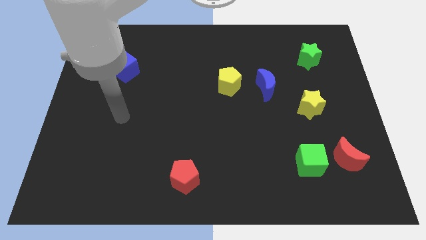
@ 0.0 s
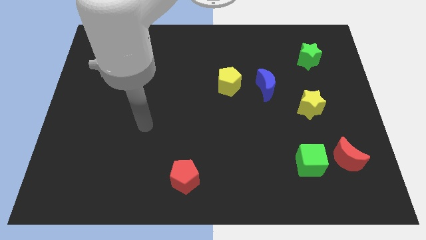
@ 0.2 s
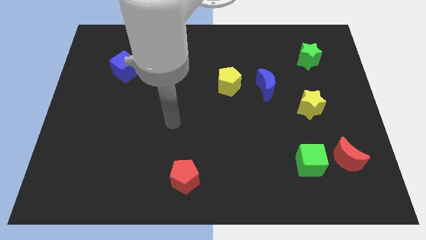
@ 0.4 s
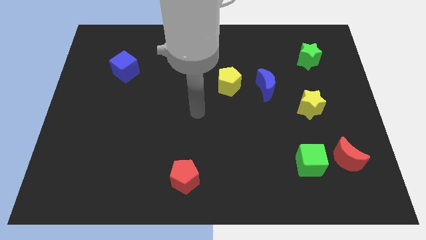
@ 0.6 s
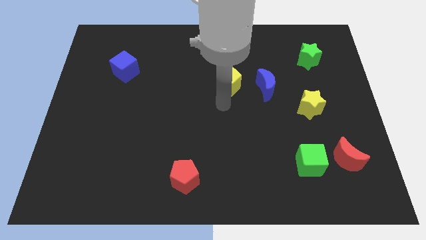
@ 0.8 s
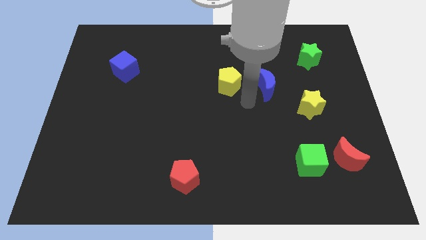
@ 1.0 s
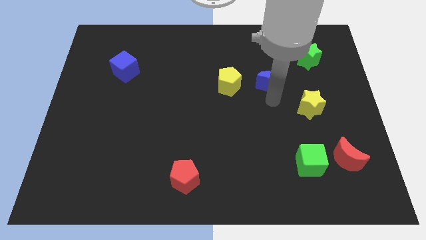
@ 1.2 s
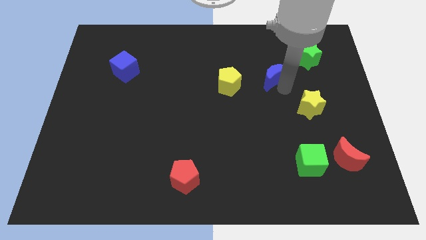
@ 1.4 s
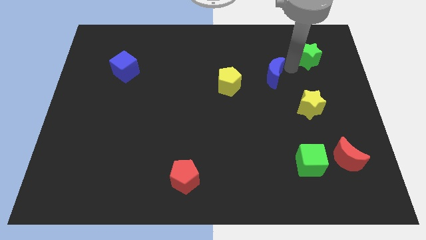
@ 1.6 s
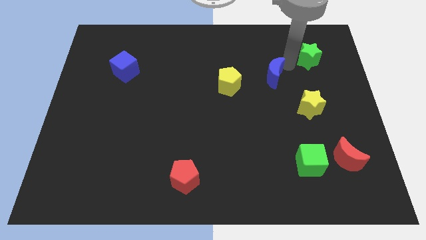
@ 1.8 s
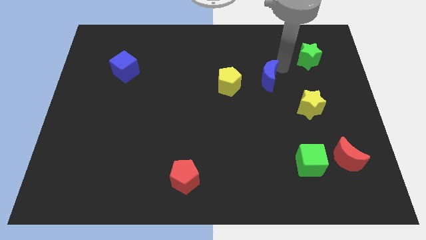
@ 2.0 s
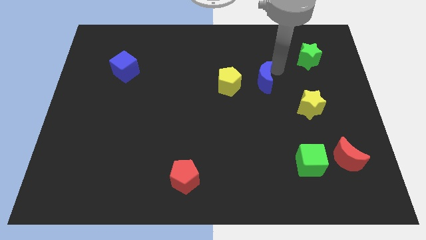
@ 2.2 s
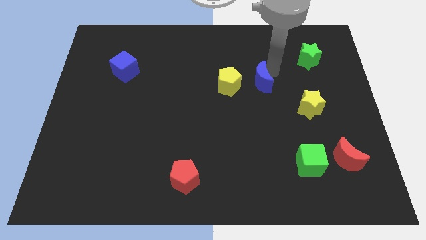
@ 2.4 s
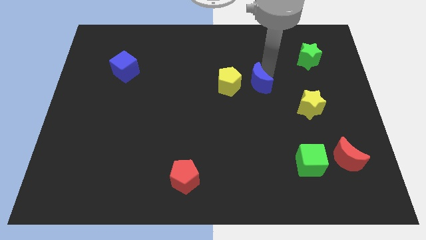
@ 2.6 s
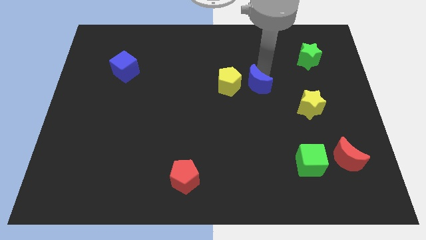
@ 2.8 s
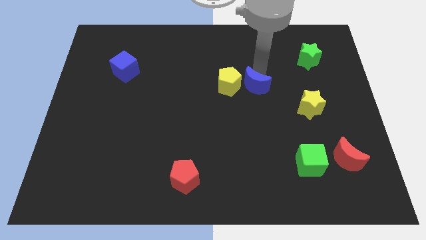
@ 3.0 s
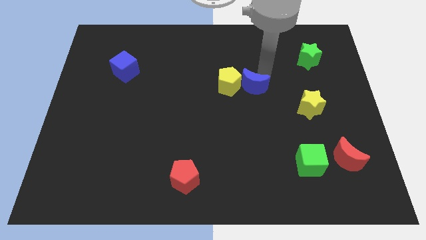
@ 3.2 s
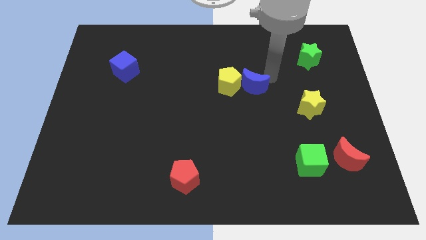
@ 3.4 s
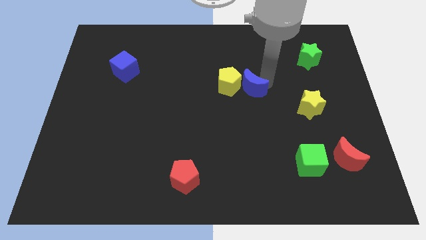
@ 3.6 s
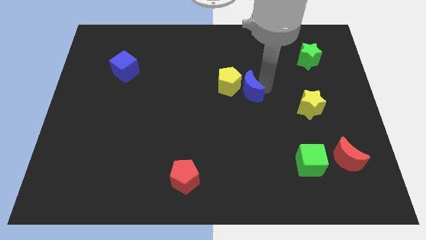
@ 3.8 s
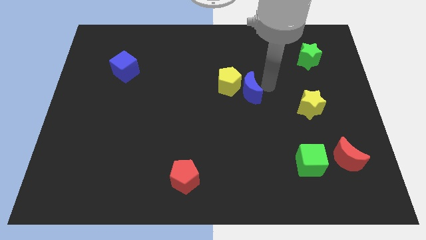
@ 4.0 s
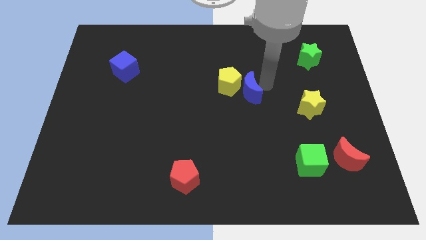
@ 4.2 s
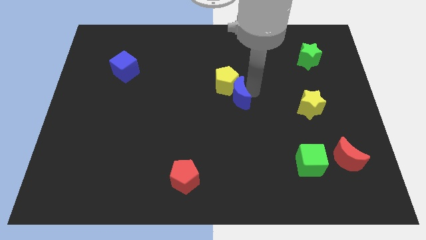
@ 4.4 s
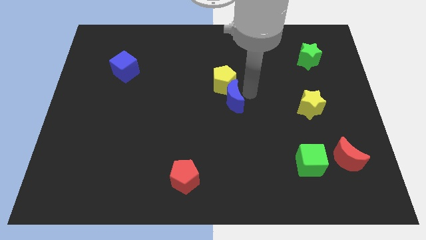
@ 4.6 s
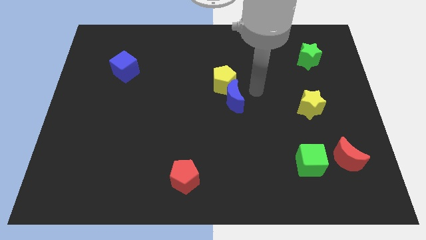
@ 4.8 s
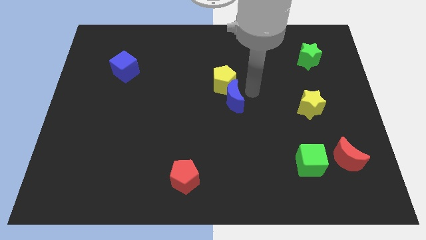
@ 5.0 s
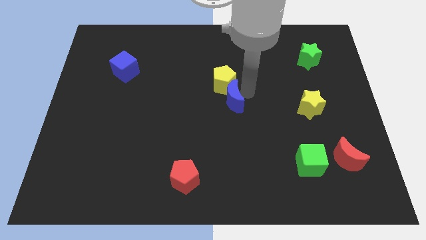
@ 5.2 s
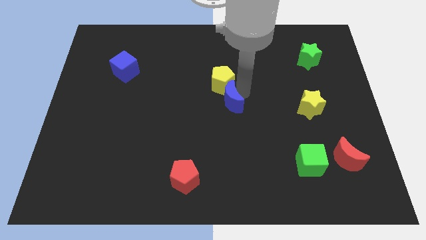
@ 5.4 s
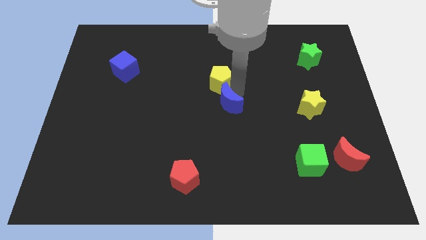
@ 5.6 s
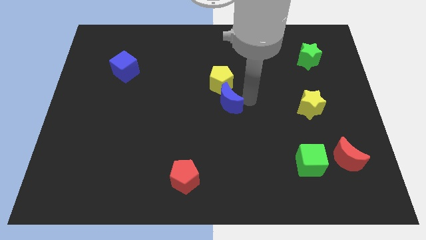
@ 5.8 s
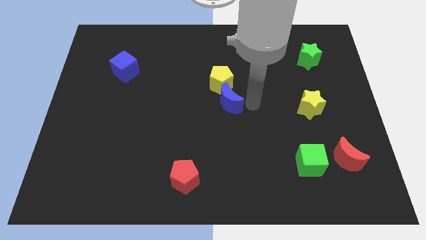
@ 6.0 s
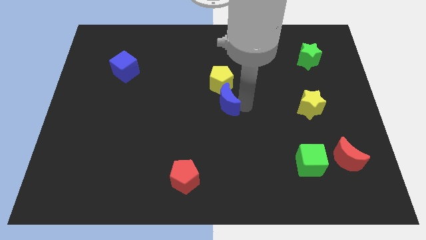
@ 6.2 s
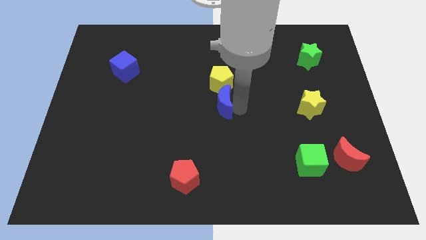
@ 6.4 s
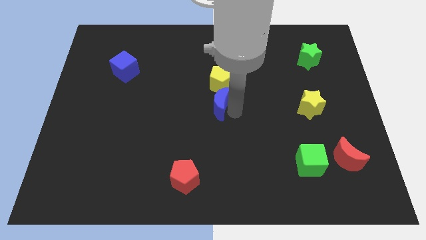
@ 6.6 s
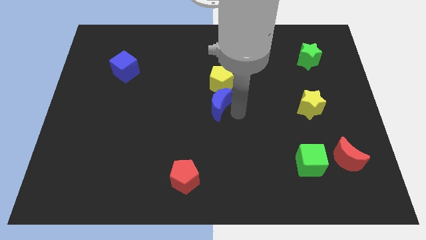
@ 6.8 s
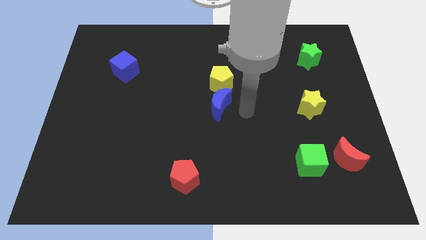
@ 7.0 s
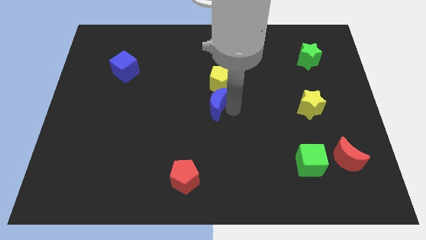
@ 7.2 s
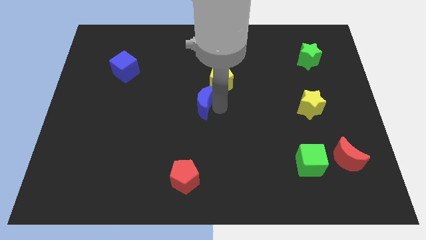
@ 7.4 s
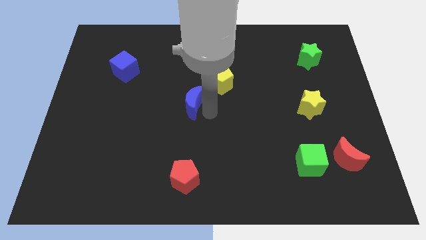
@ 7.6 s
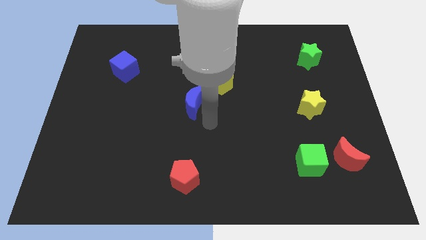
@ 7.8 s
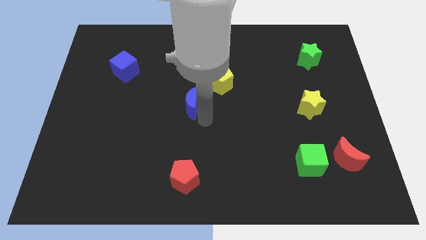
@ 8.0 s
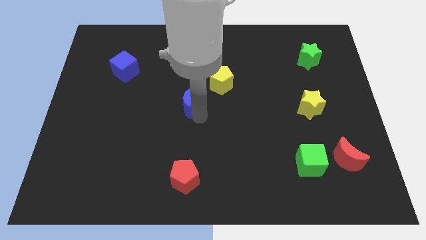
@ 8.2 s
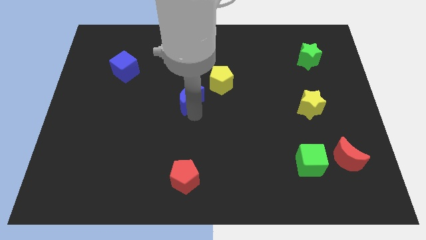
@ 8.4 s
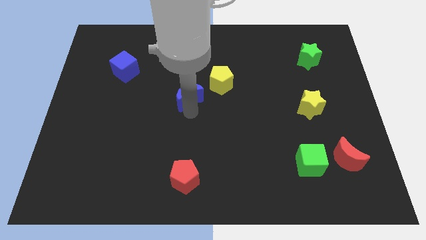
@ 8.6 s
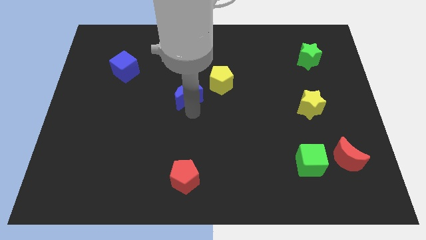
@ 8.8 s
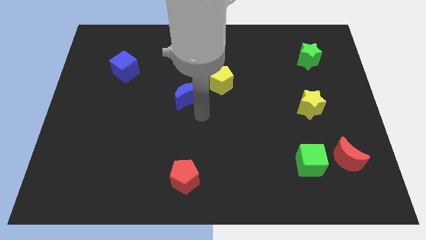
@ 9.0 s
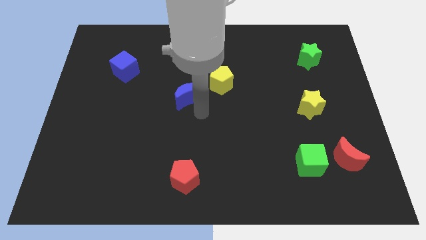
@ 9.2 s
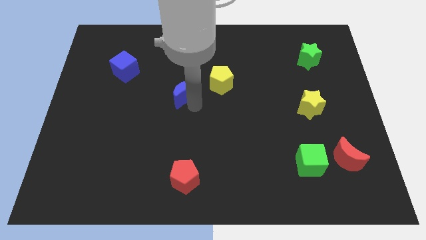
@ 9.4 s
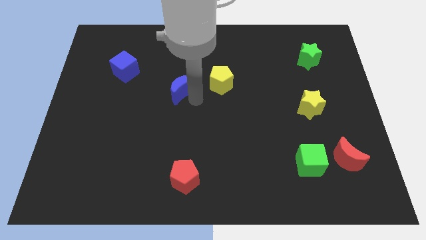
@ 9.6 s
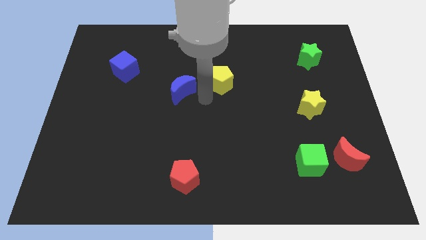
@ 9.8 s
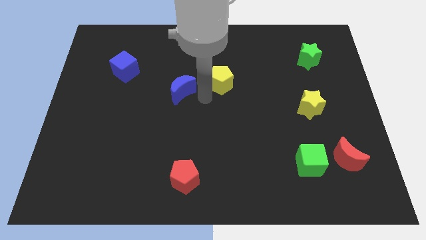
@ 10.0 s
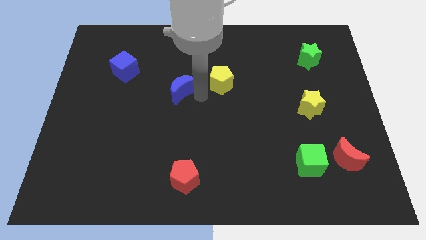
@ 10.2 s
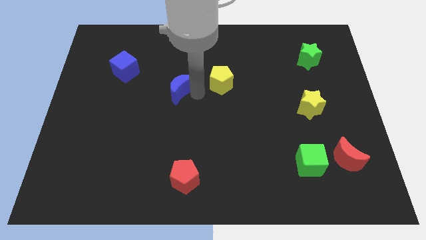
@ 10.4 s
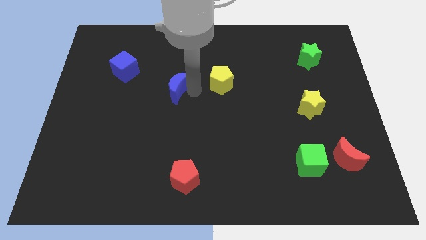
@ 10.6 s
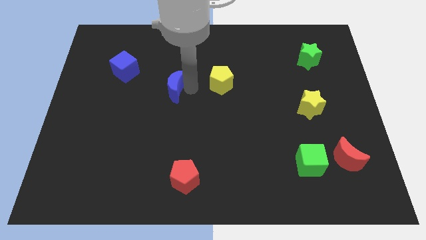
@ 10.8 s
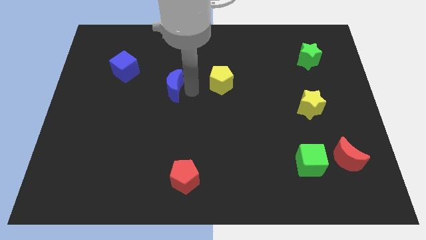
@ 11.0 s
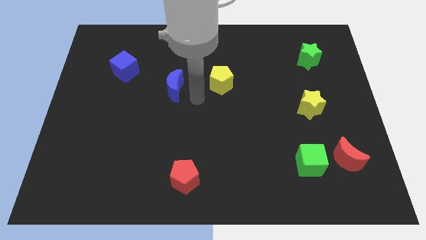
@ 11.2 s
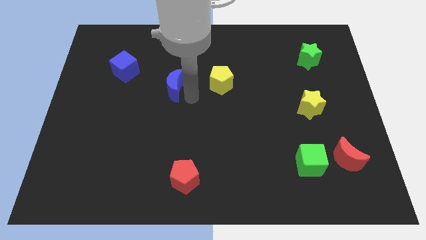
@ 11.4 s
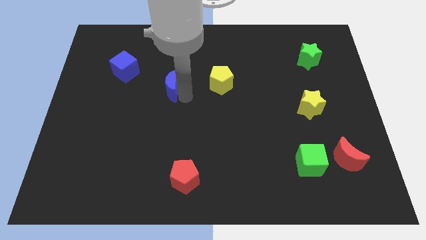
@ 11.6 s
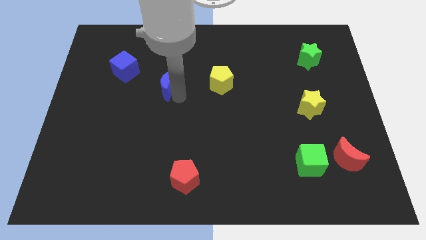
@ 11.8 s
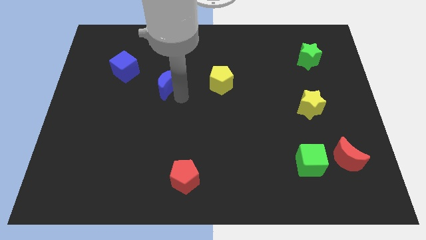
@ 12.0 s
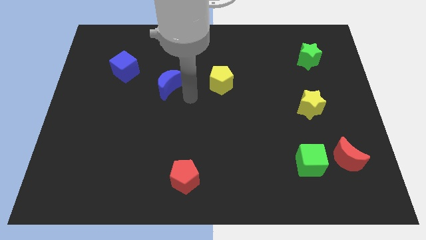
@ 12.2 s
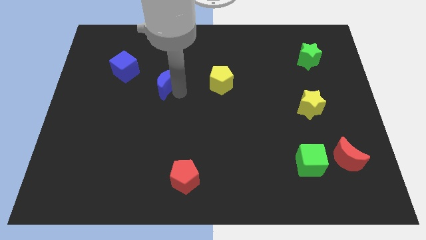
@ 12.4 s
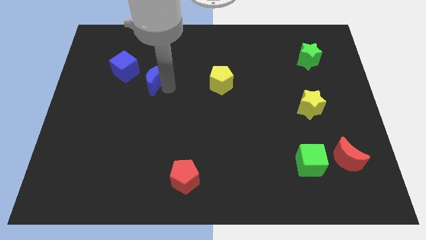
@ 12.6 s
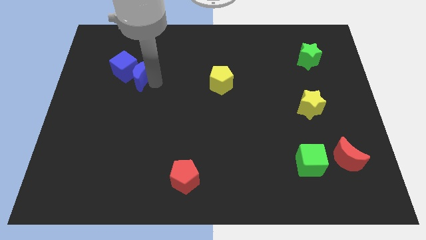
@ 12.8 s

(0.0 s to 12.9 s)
put the blue moon close to the blue cube
